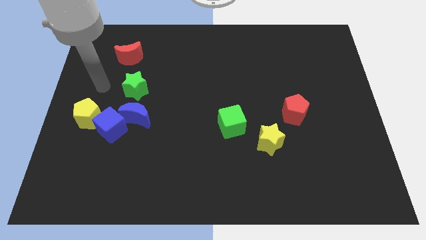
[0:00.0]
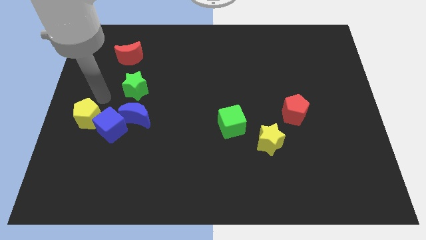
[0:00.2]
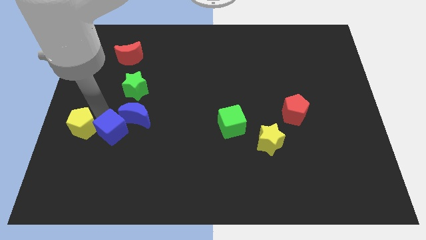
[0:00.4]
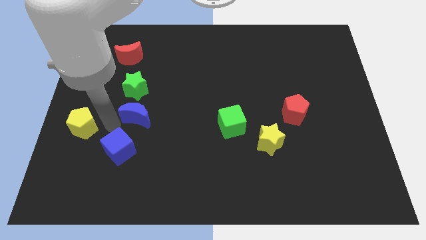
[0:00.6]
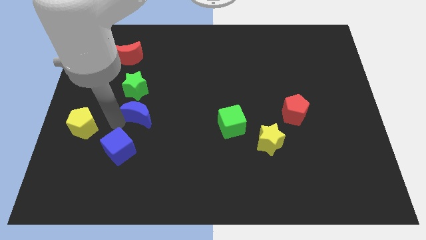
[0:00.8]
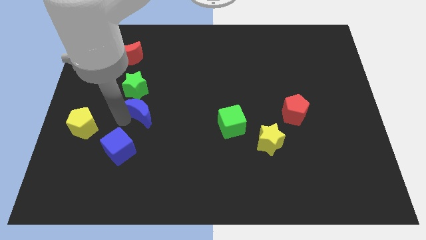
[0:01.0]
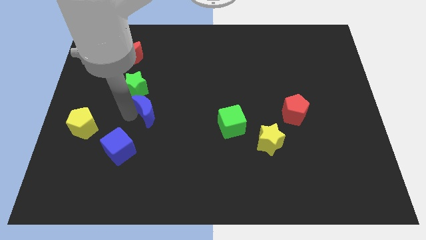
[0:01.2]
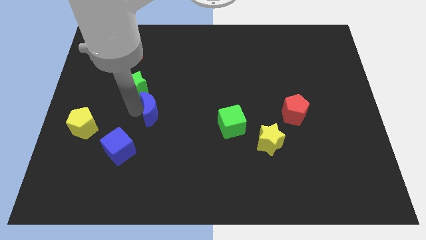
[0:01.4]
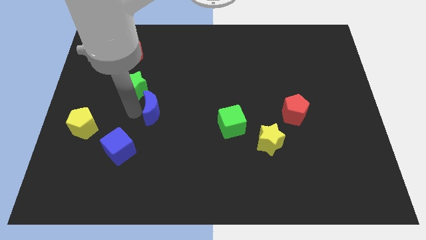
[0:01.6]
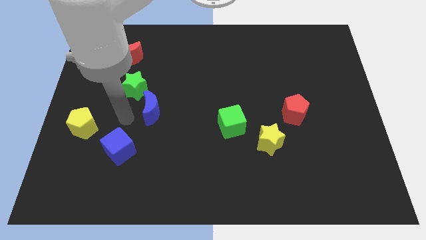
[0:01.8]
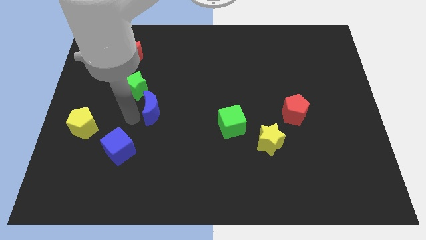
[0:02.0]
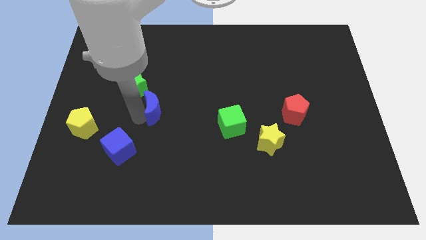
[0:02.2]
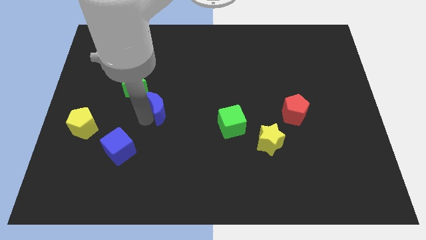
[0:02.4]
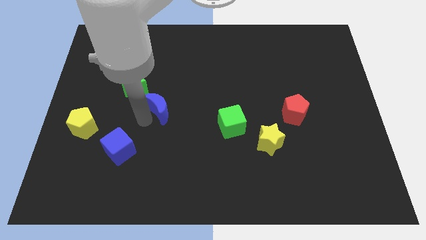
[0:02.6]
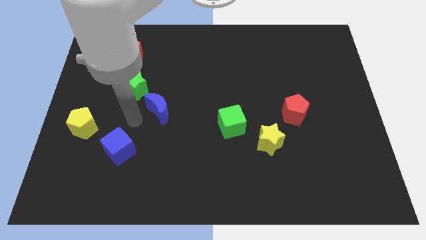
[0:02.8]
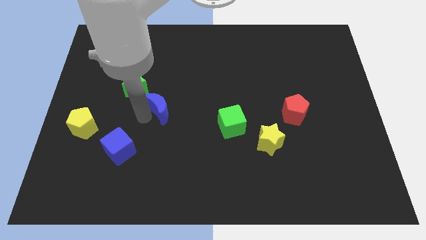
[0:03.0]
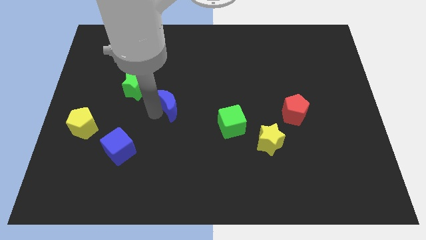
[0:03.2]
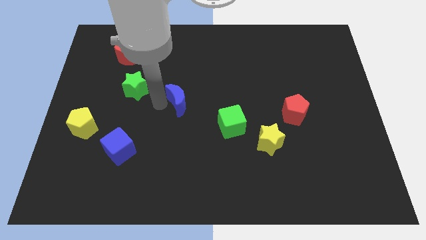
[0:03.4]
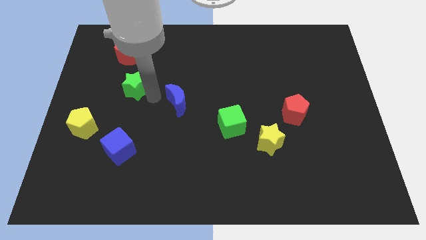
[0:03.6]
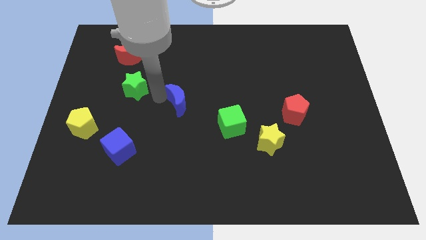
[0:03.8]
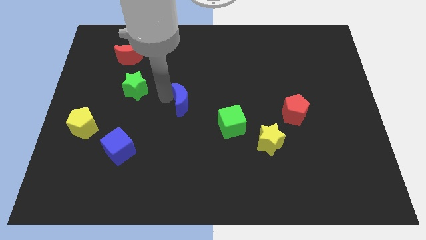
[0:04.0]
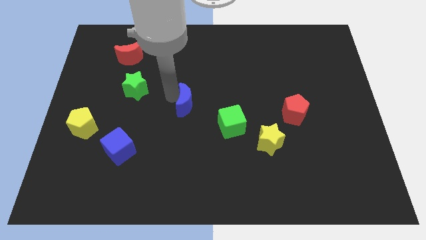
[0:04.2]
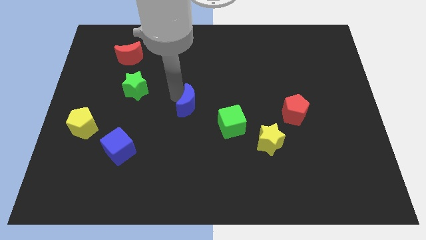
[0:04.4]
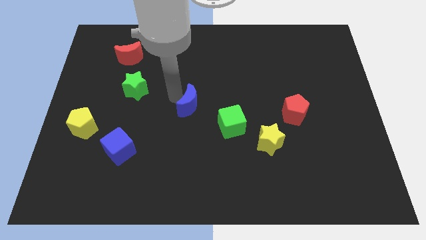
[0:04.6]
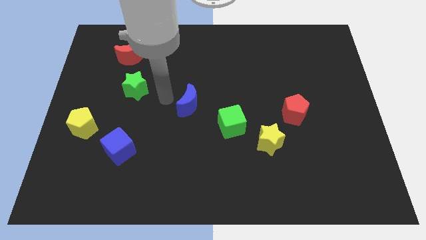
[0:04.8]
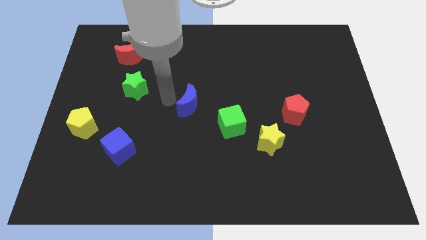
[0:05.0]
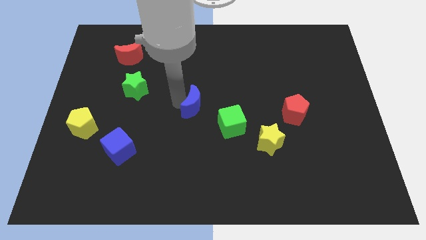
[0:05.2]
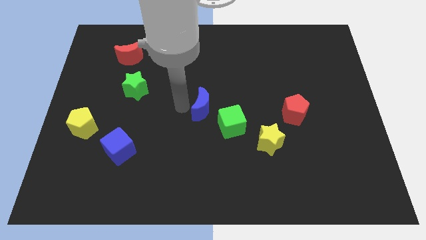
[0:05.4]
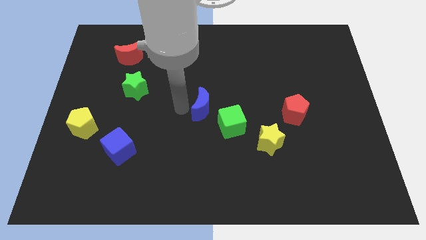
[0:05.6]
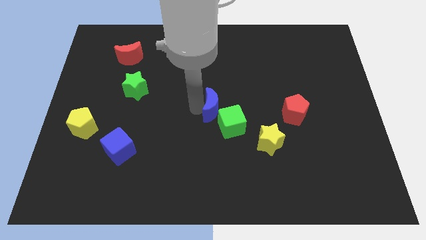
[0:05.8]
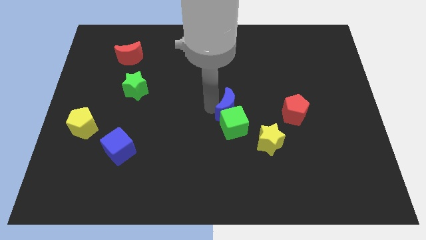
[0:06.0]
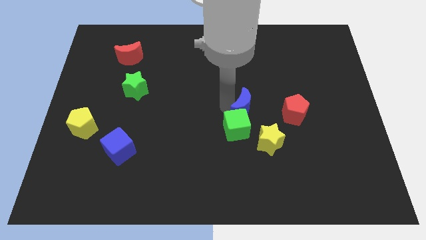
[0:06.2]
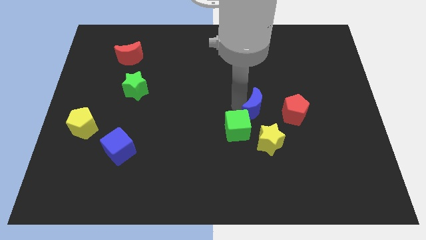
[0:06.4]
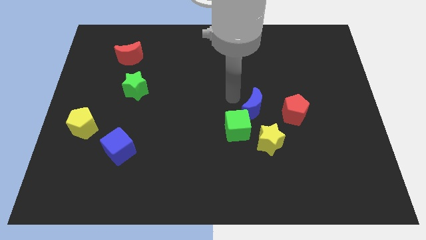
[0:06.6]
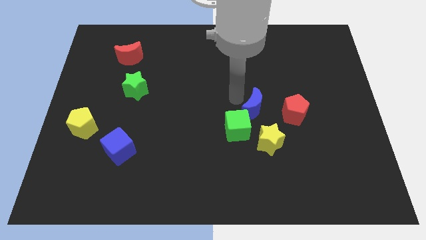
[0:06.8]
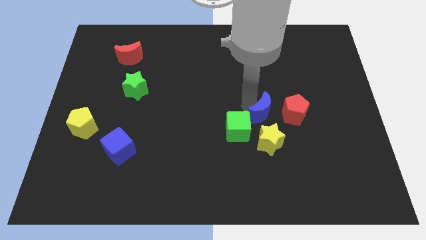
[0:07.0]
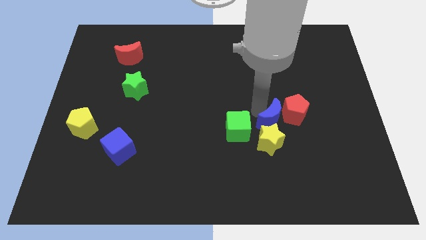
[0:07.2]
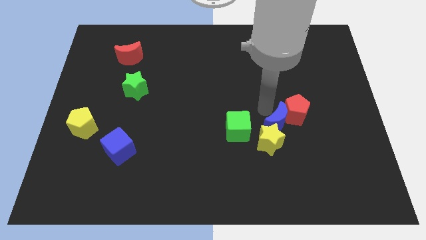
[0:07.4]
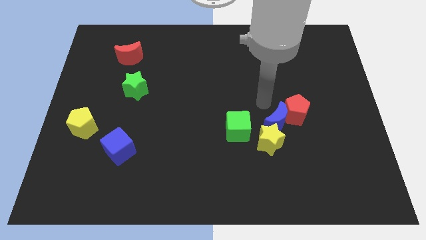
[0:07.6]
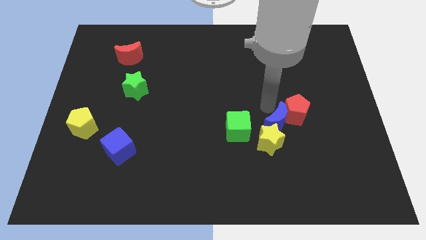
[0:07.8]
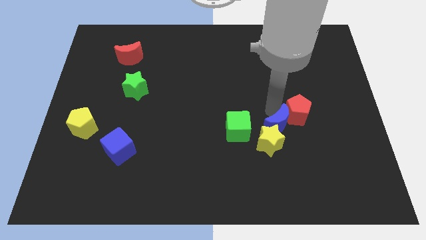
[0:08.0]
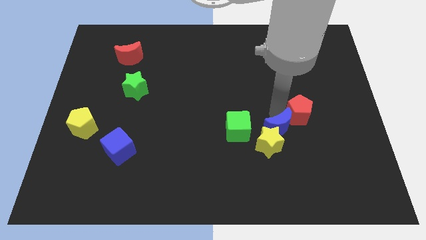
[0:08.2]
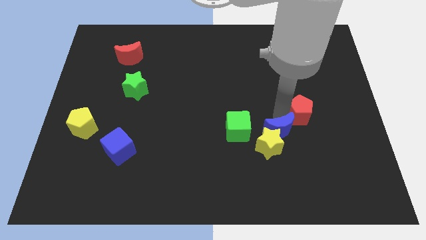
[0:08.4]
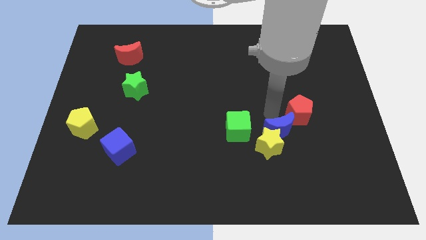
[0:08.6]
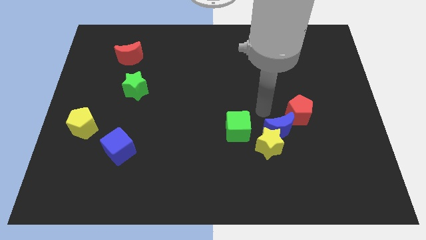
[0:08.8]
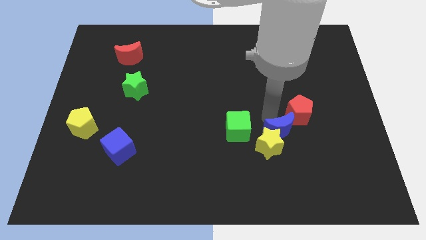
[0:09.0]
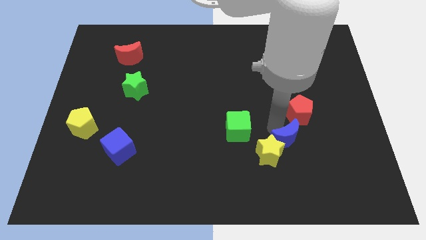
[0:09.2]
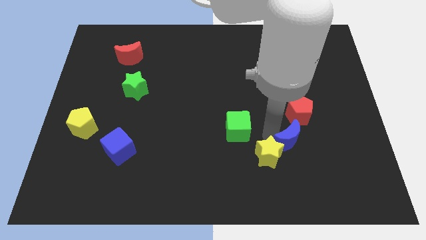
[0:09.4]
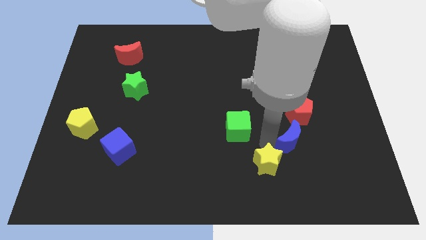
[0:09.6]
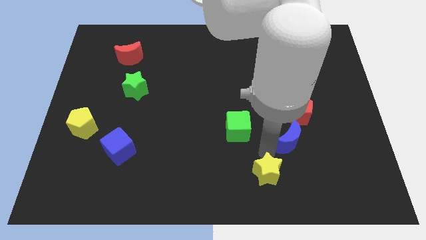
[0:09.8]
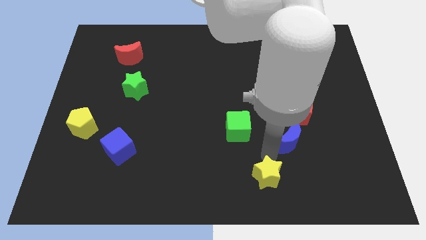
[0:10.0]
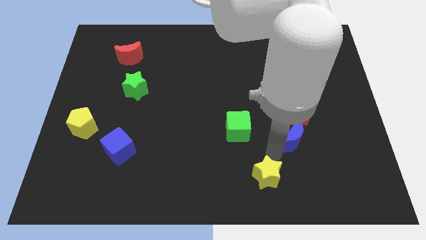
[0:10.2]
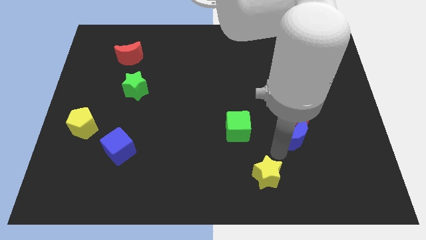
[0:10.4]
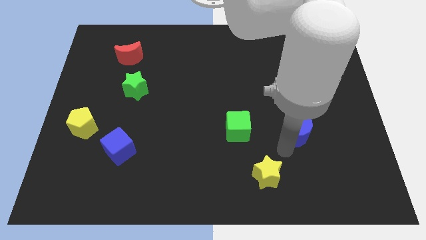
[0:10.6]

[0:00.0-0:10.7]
push the blue moon diagonally down and to the right of the red pentagon

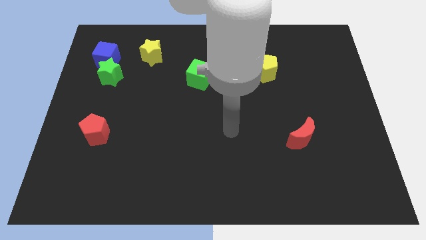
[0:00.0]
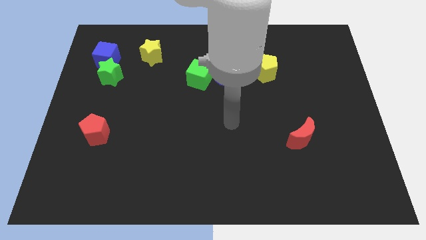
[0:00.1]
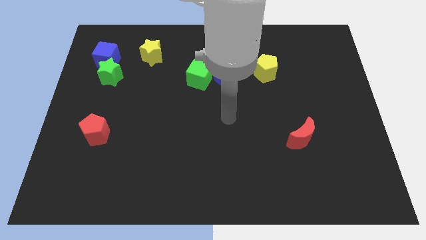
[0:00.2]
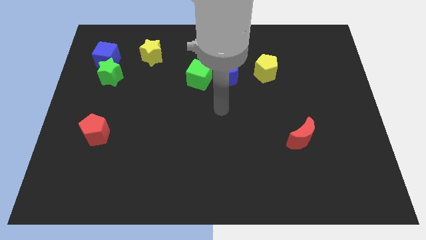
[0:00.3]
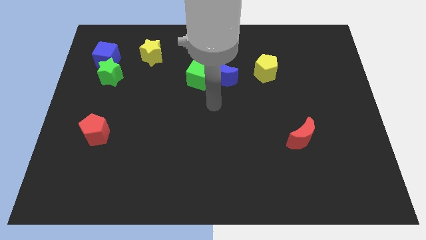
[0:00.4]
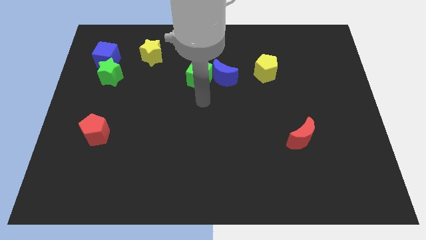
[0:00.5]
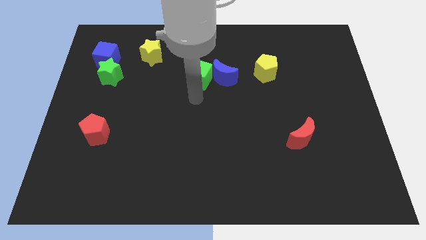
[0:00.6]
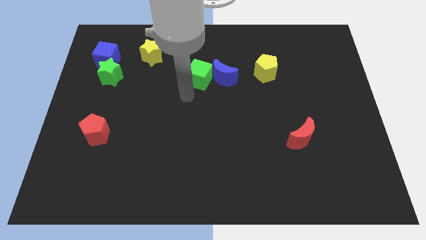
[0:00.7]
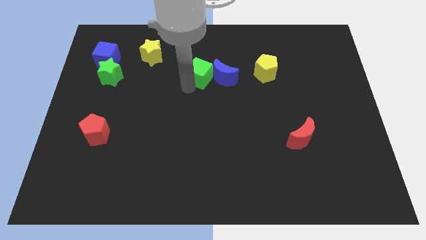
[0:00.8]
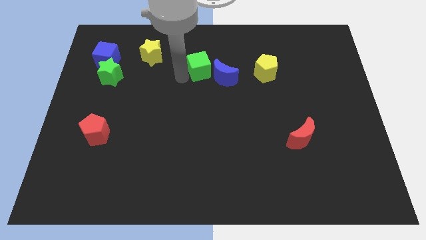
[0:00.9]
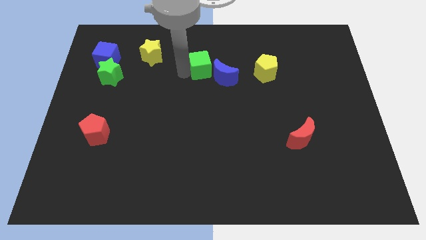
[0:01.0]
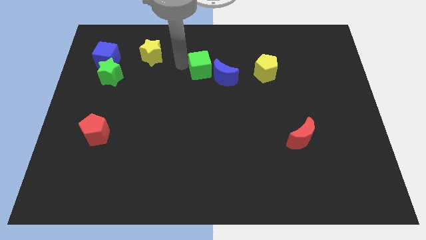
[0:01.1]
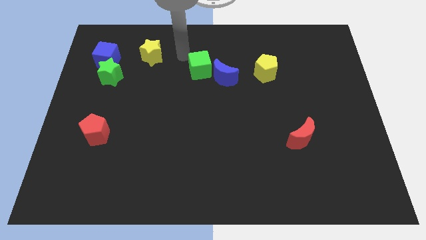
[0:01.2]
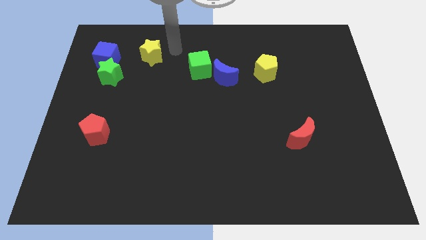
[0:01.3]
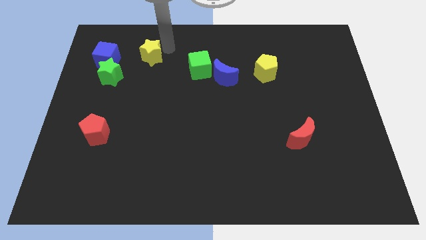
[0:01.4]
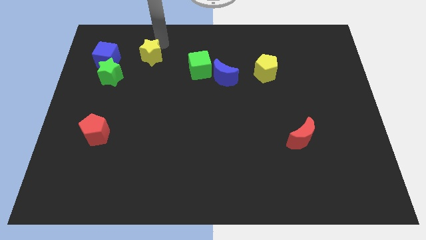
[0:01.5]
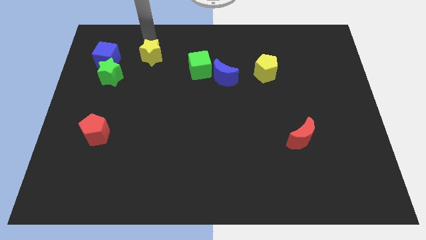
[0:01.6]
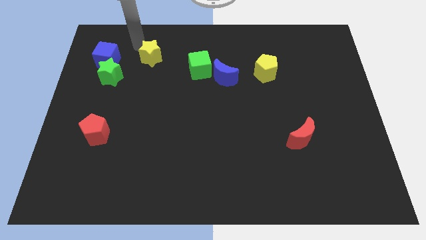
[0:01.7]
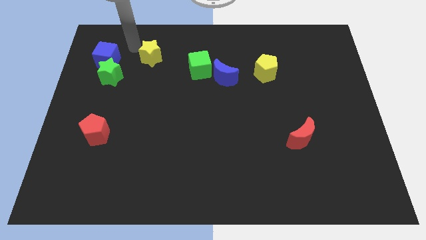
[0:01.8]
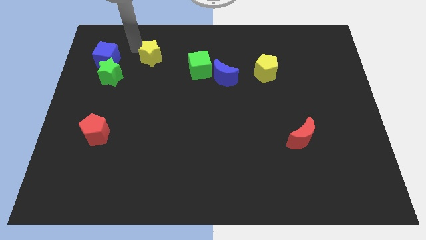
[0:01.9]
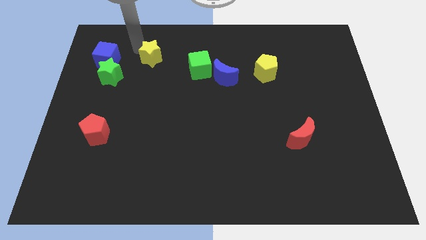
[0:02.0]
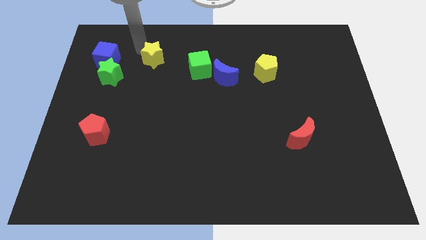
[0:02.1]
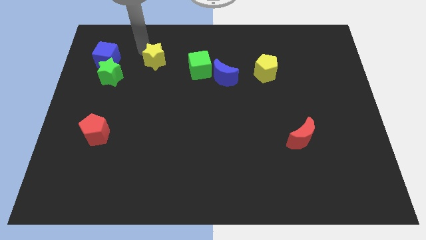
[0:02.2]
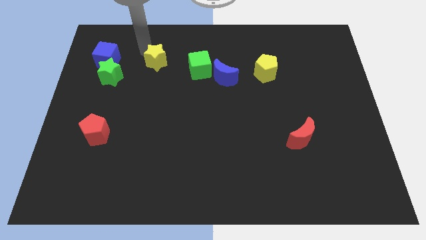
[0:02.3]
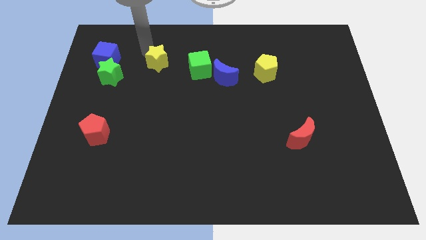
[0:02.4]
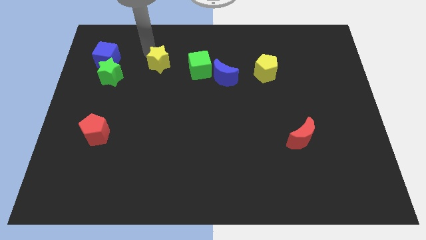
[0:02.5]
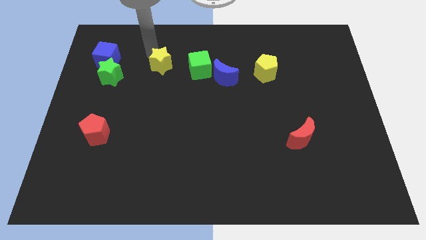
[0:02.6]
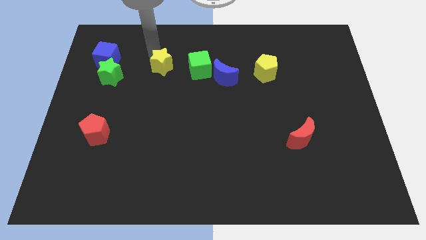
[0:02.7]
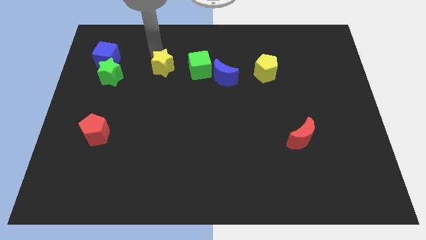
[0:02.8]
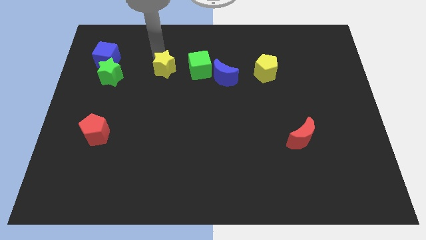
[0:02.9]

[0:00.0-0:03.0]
slide the yellow star to the left of the blue moon
